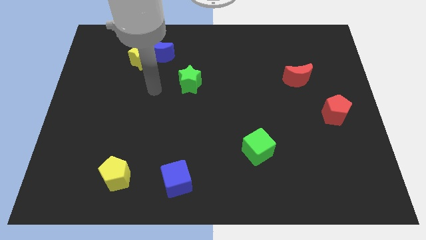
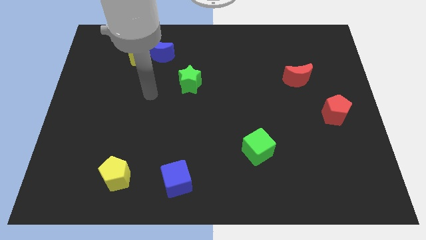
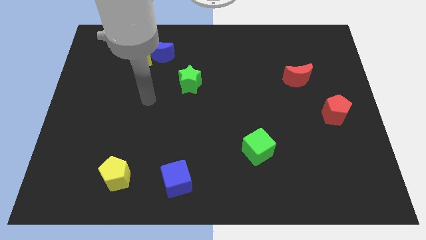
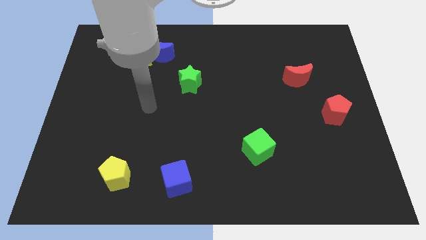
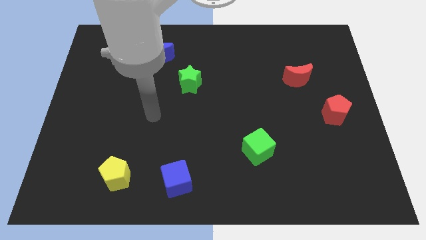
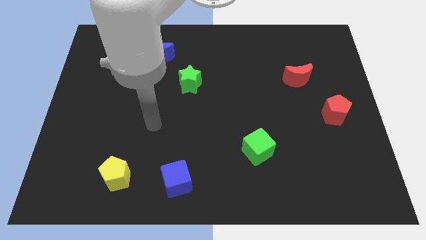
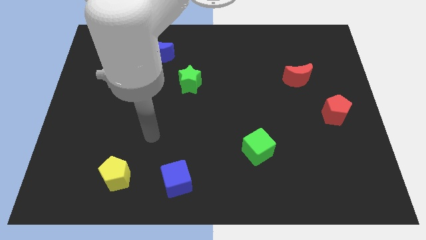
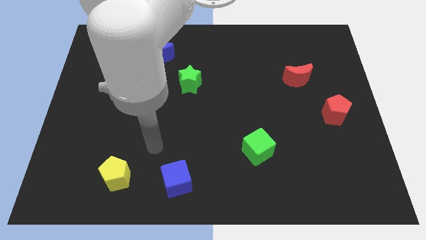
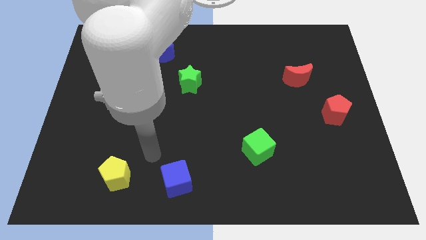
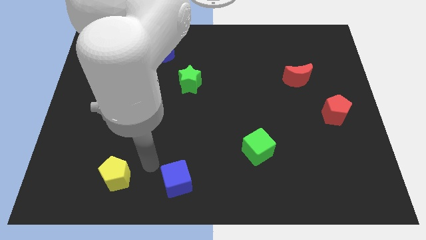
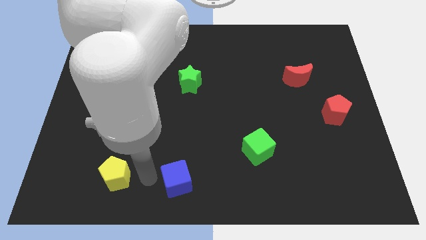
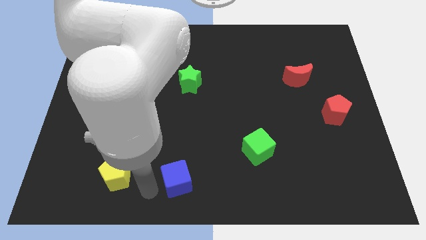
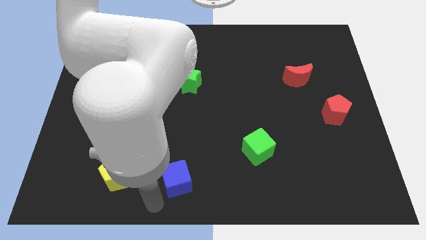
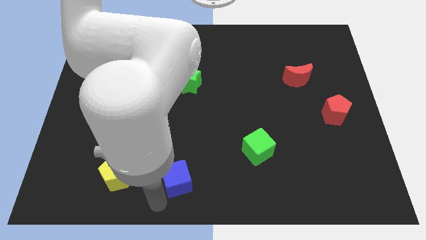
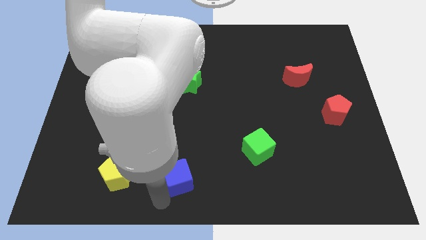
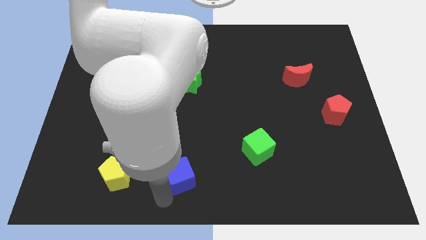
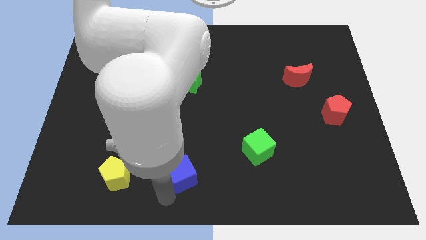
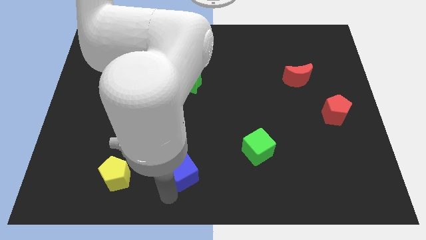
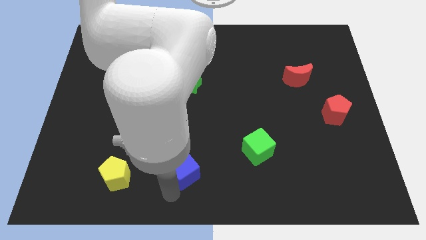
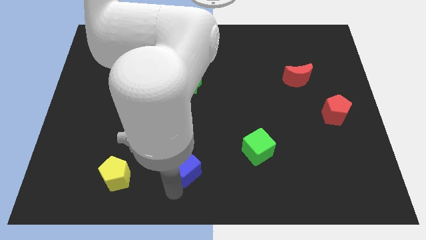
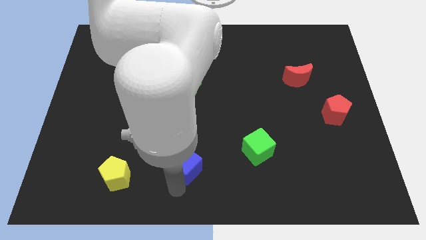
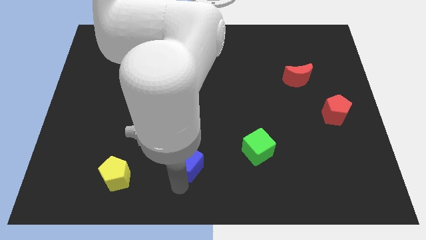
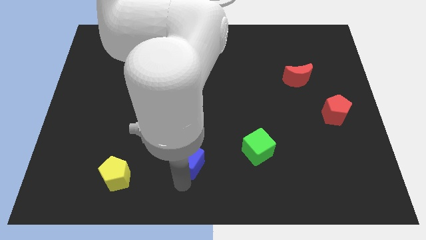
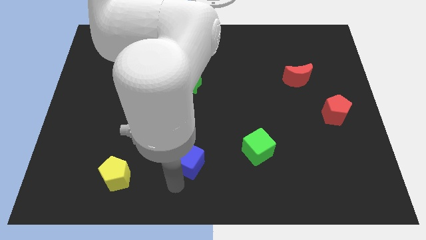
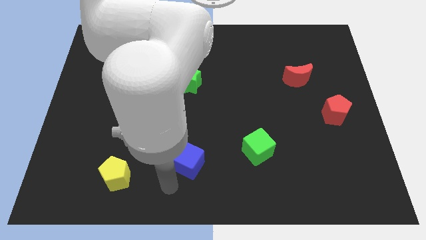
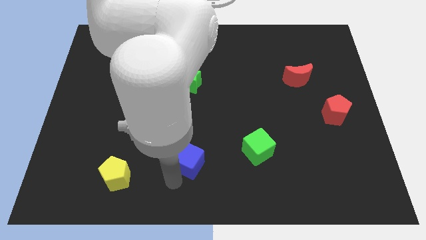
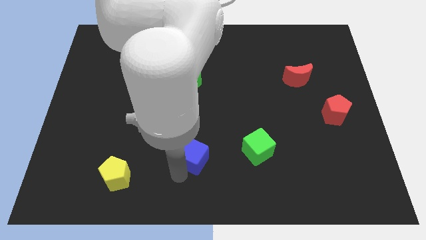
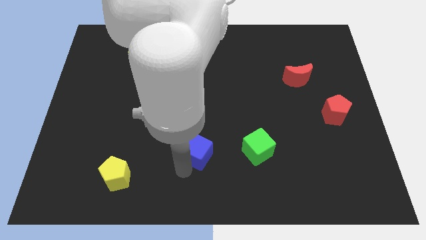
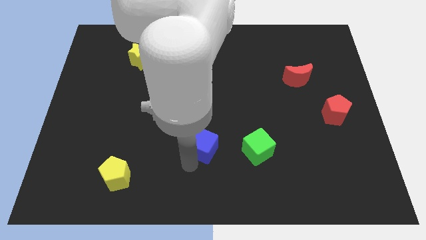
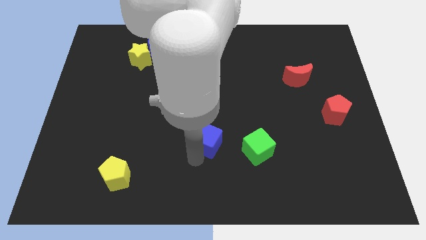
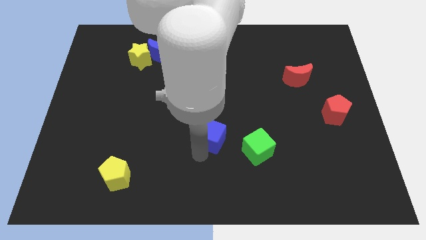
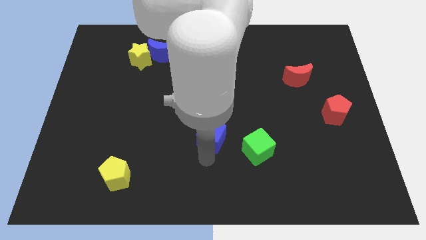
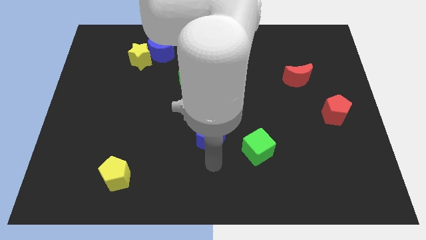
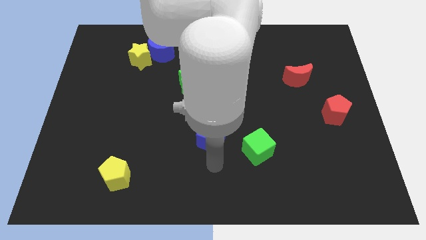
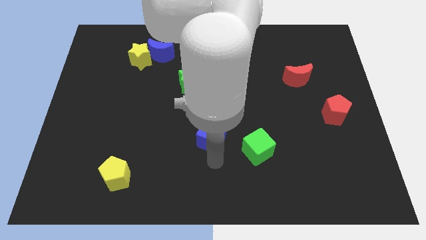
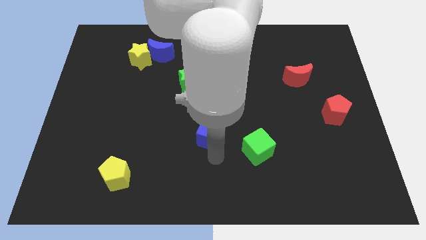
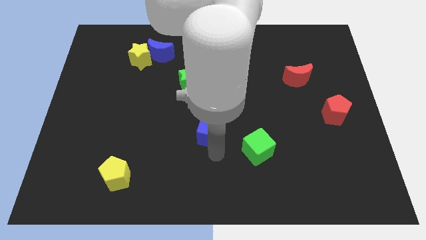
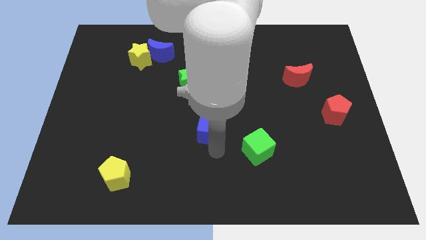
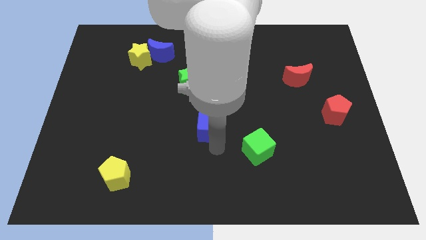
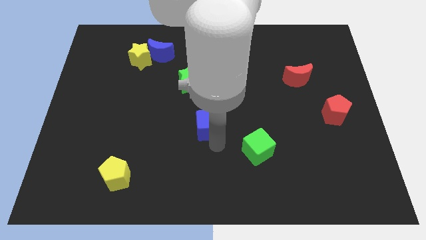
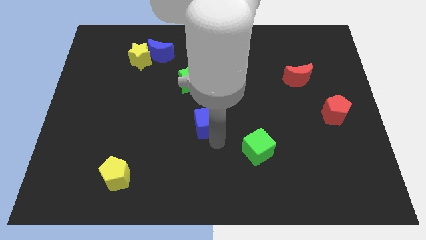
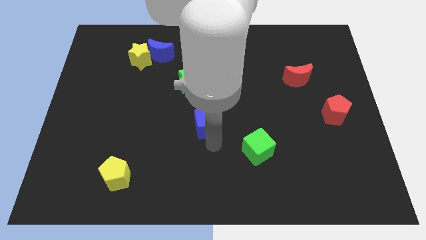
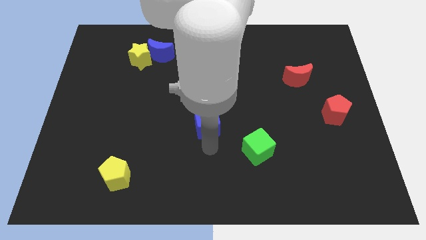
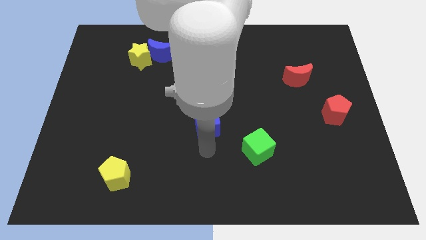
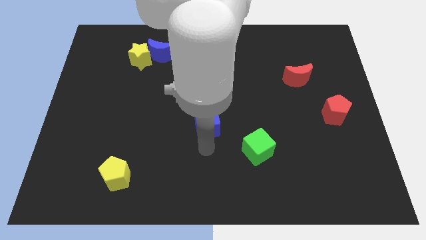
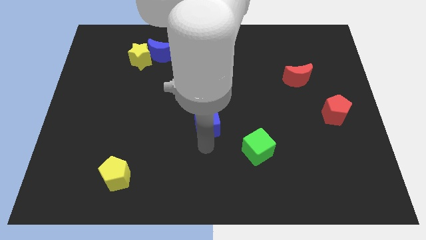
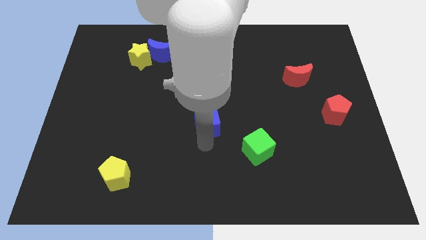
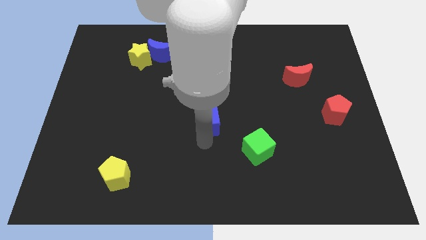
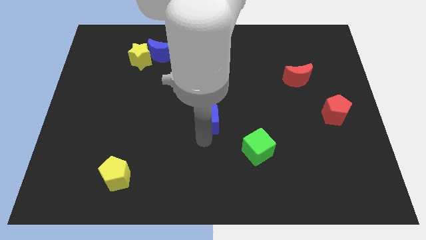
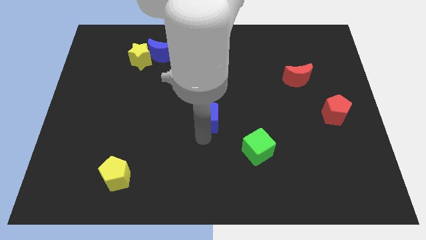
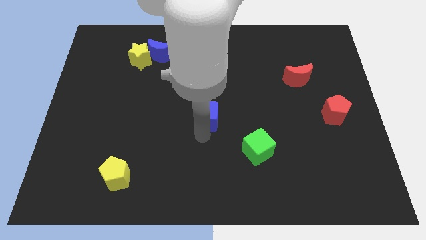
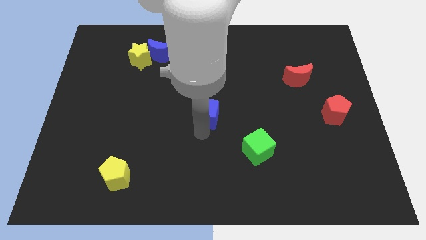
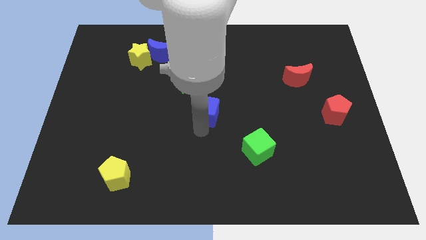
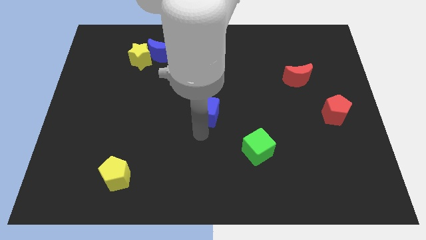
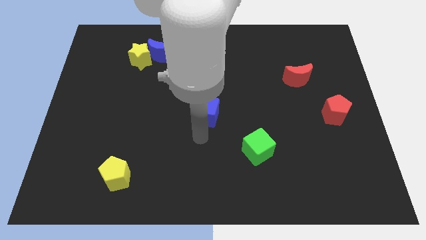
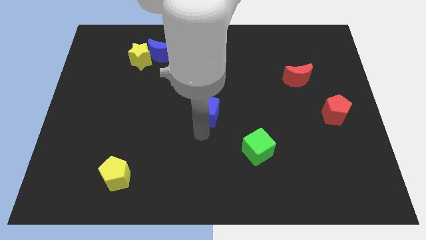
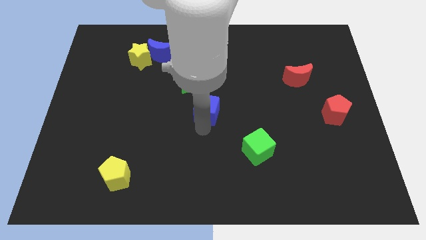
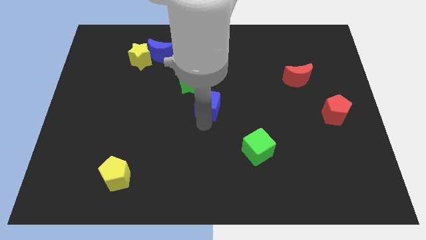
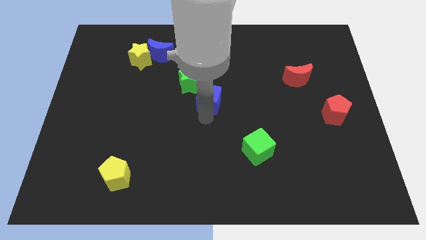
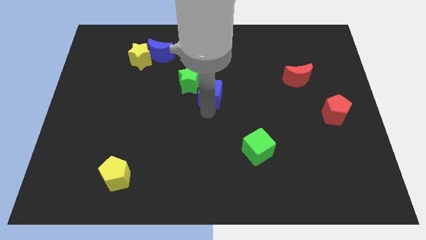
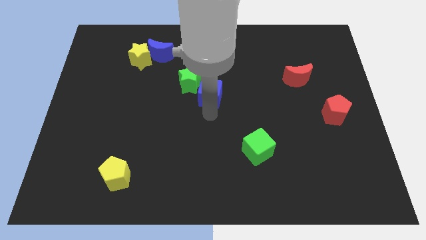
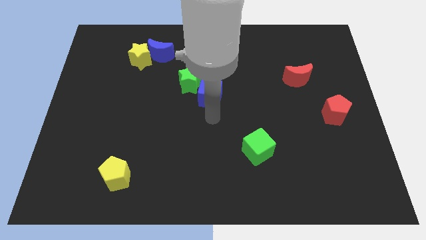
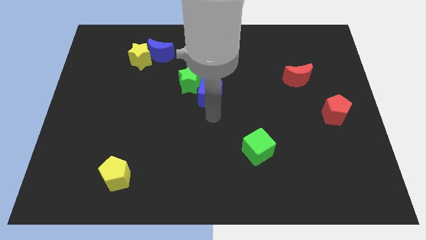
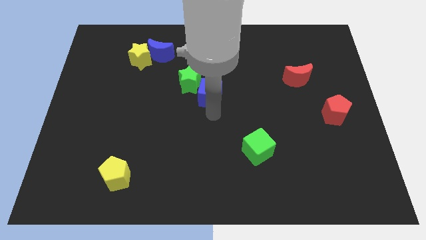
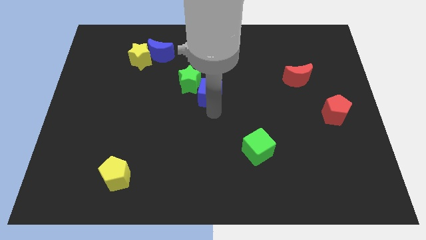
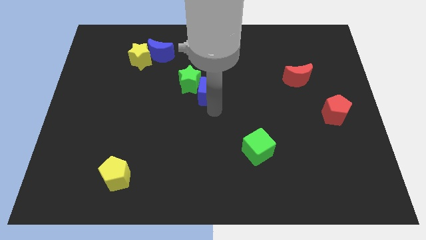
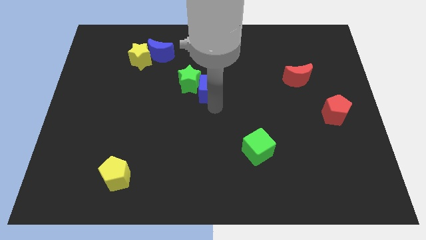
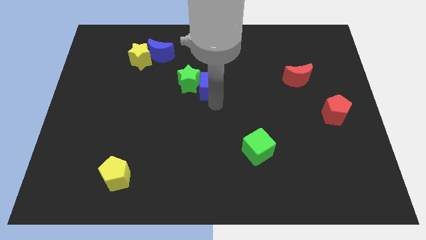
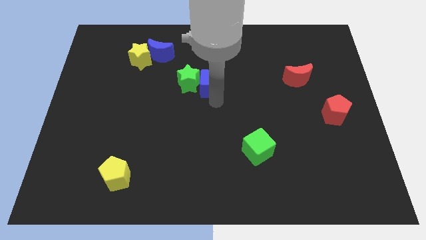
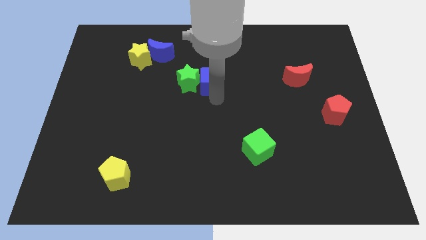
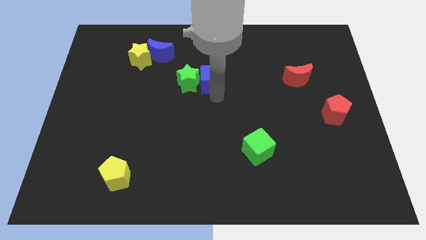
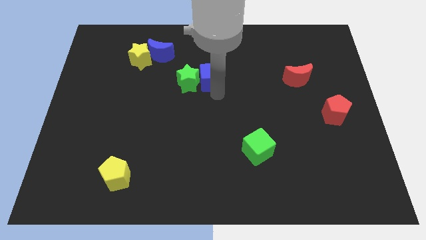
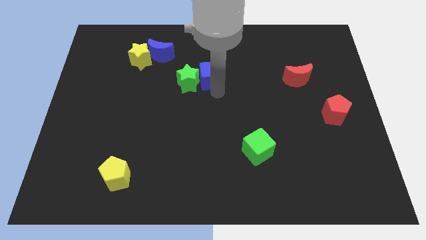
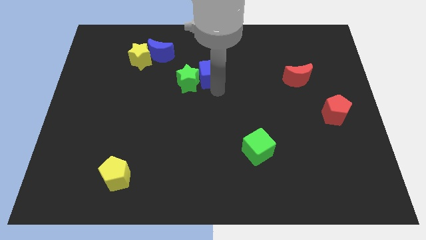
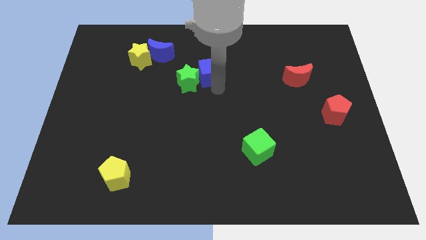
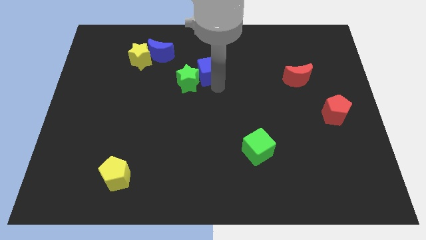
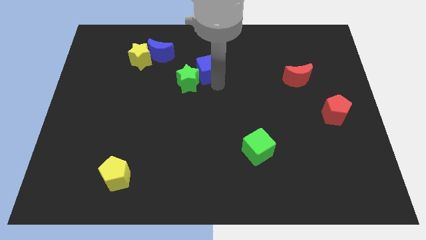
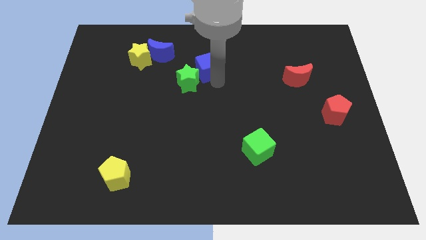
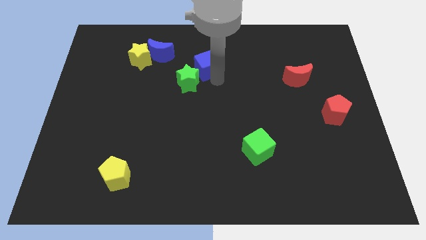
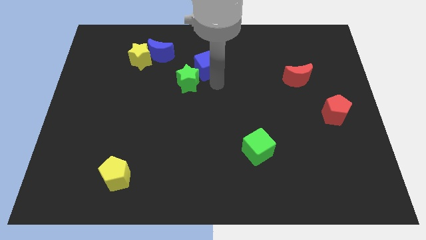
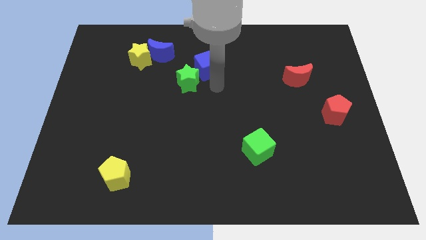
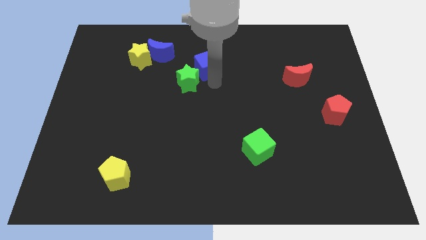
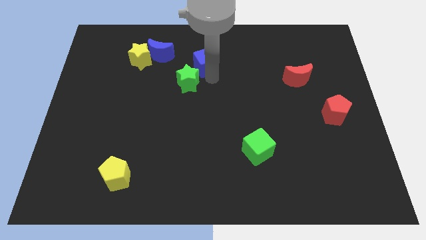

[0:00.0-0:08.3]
put the blue cube just right of the blue moon

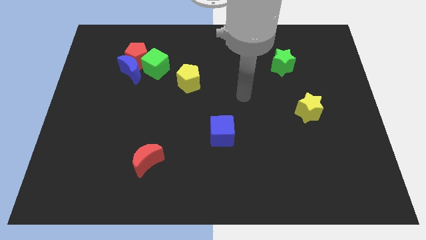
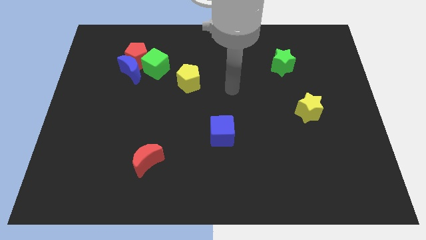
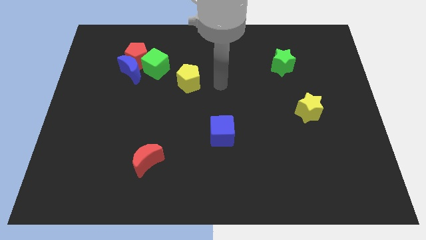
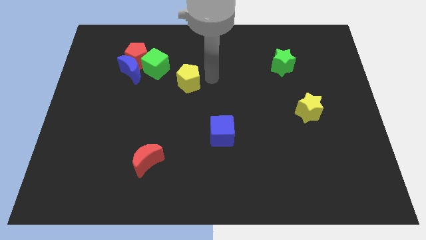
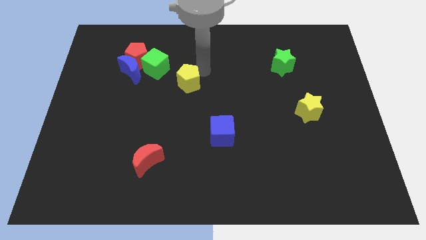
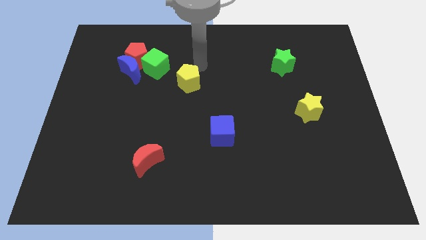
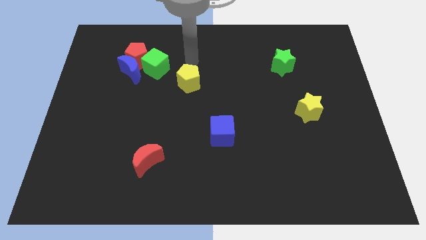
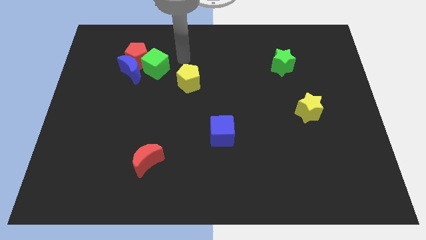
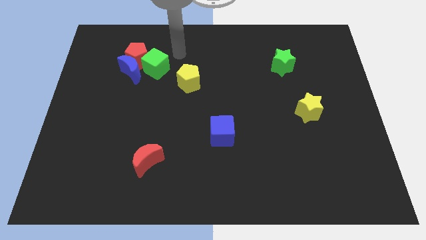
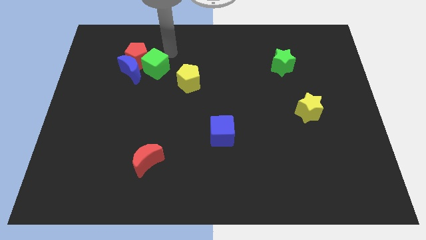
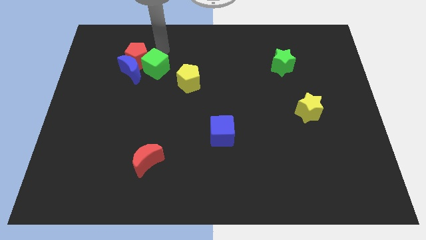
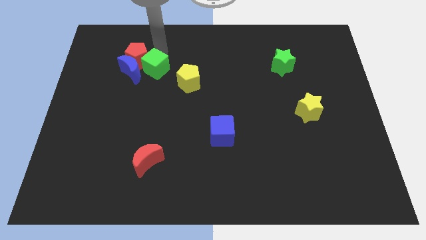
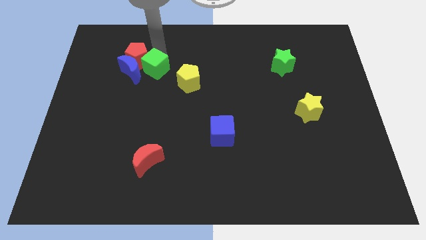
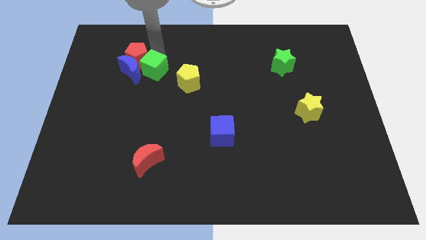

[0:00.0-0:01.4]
push the green cube to the bottom right side of the blue moon
